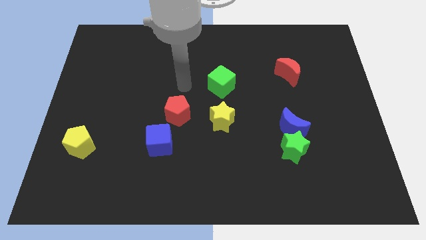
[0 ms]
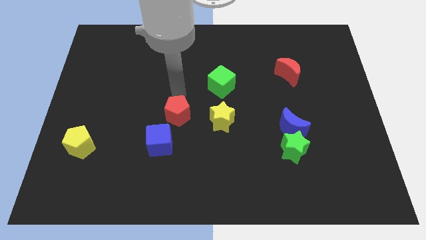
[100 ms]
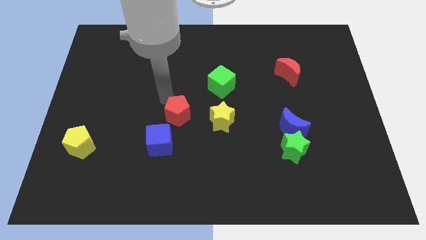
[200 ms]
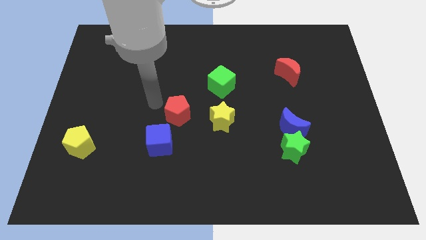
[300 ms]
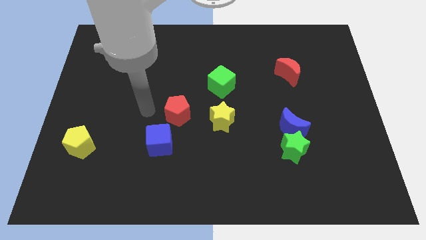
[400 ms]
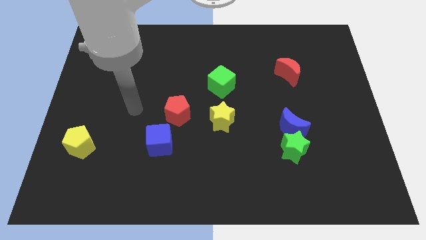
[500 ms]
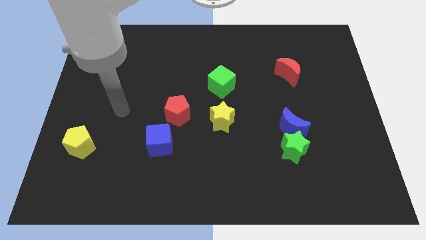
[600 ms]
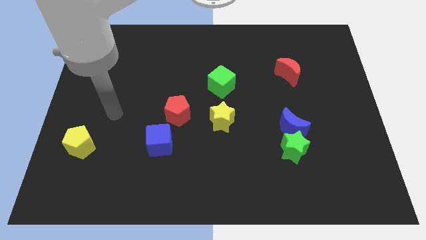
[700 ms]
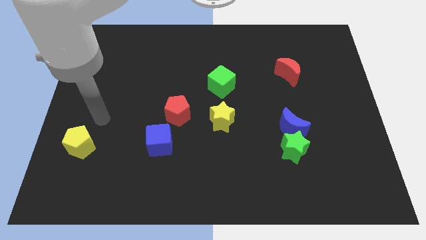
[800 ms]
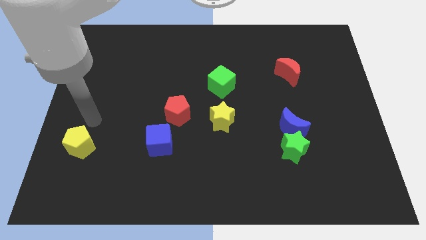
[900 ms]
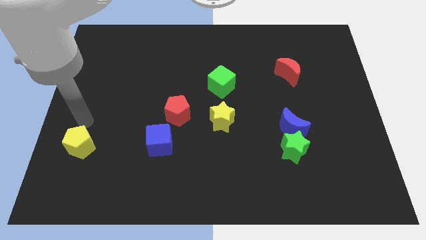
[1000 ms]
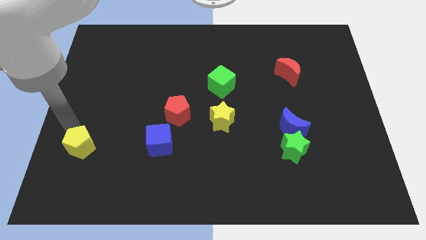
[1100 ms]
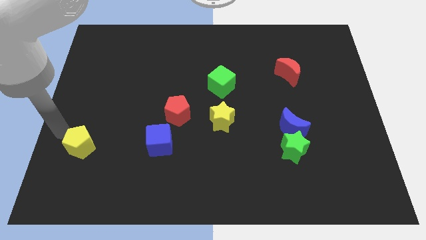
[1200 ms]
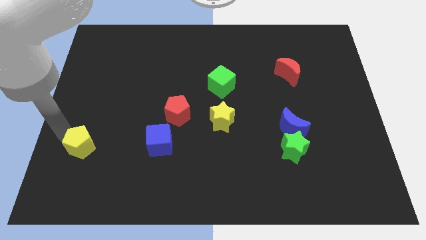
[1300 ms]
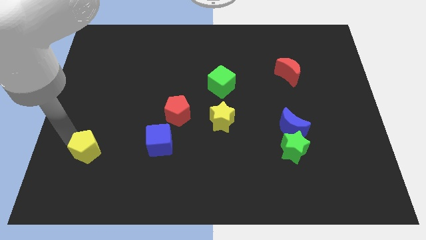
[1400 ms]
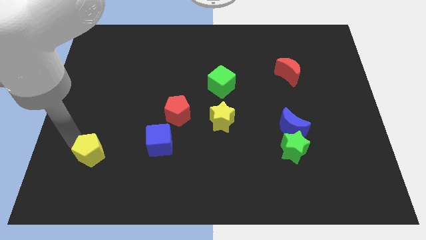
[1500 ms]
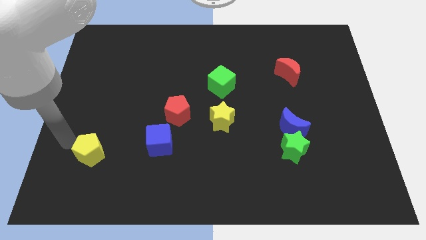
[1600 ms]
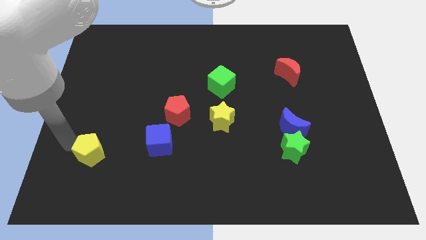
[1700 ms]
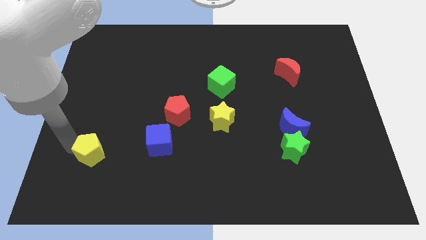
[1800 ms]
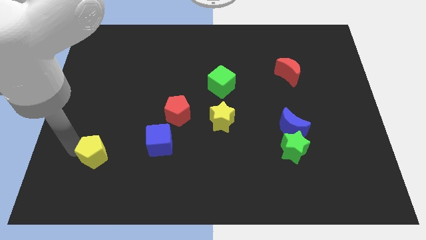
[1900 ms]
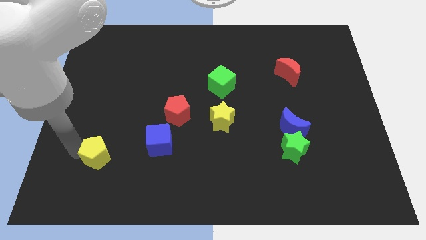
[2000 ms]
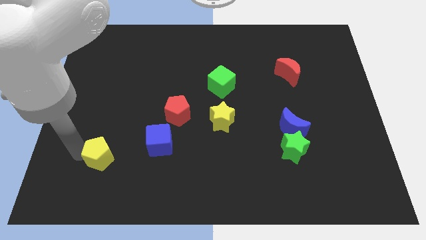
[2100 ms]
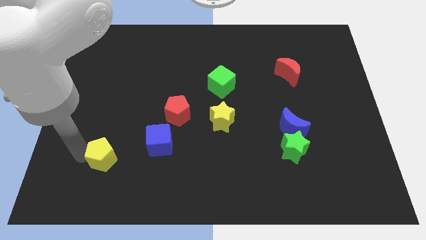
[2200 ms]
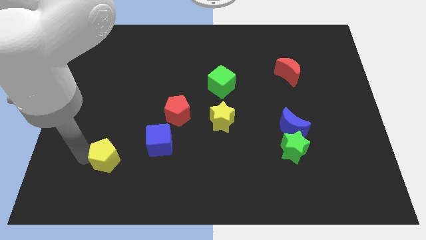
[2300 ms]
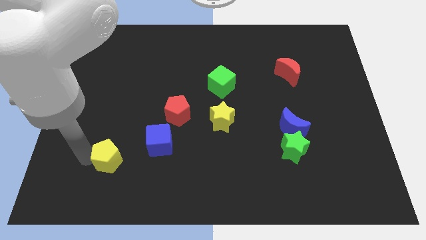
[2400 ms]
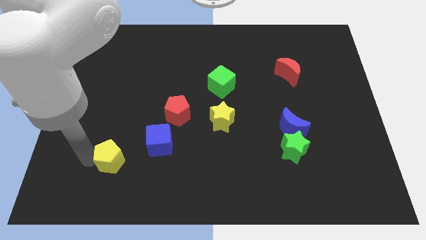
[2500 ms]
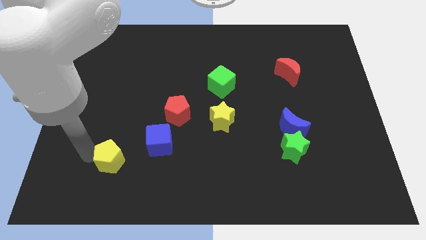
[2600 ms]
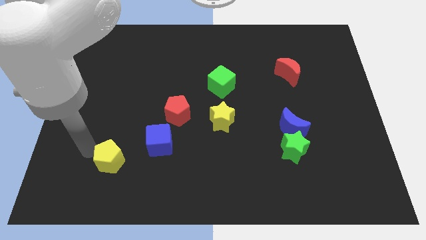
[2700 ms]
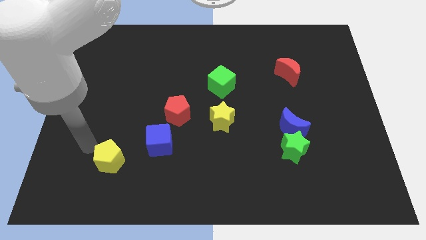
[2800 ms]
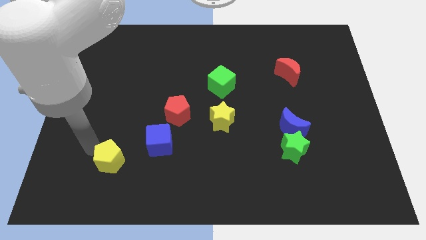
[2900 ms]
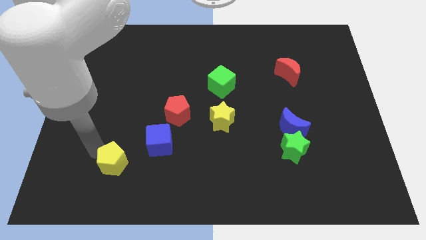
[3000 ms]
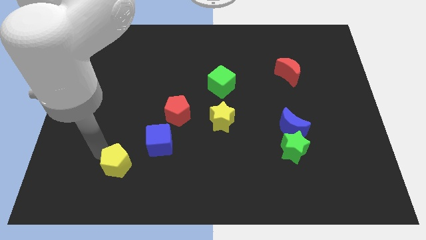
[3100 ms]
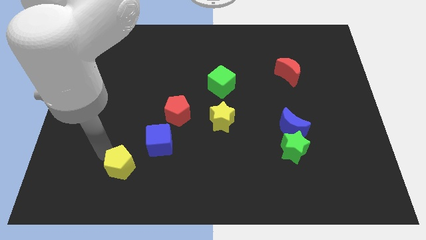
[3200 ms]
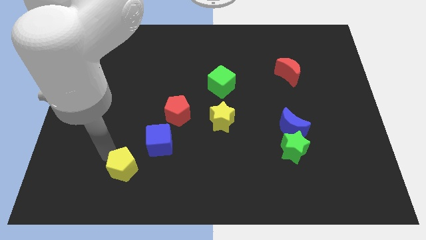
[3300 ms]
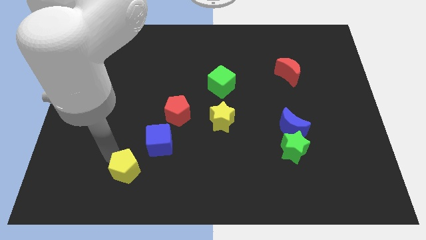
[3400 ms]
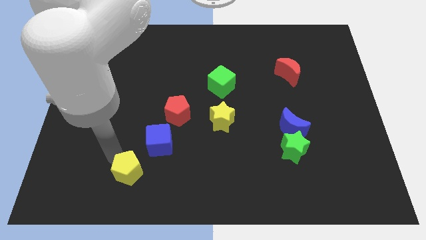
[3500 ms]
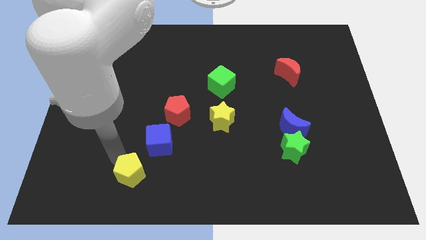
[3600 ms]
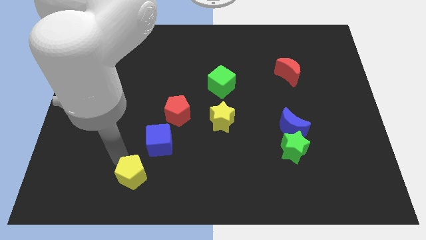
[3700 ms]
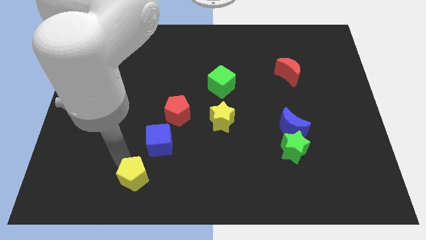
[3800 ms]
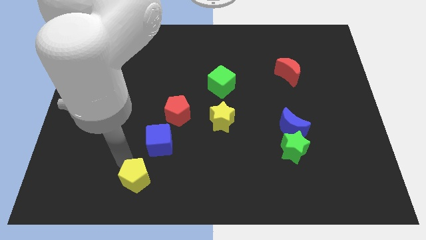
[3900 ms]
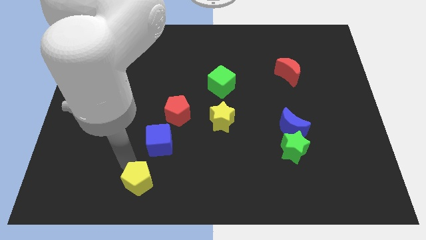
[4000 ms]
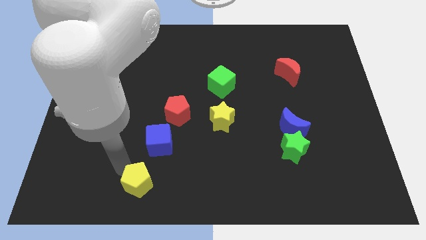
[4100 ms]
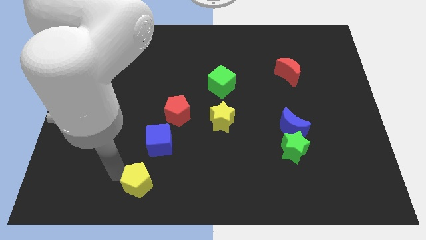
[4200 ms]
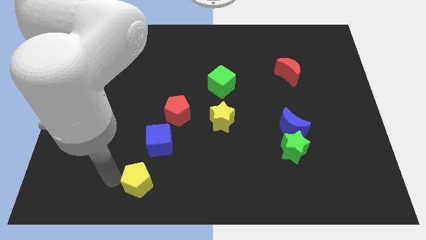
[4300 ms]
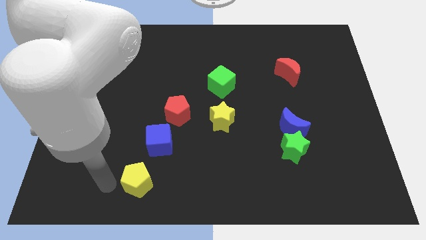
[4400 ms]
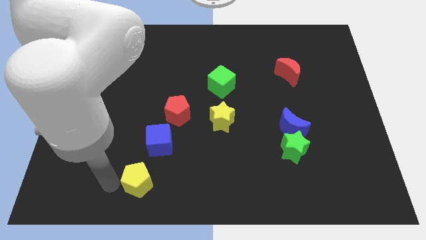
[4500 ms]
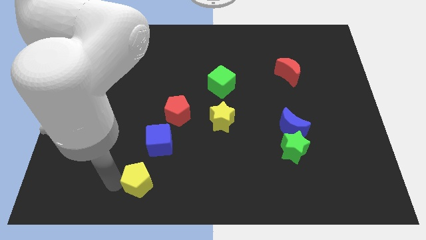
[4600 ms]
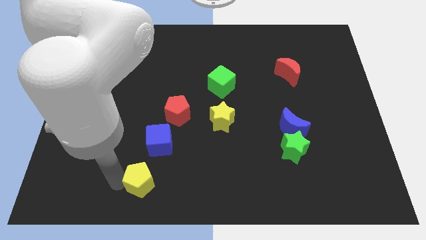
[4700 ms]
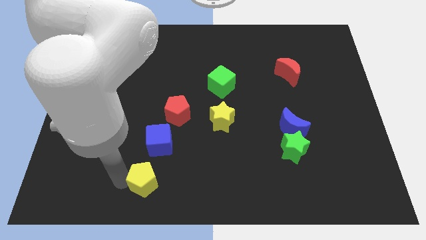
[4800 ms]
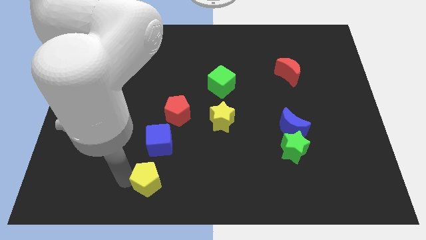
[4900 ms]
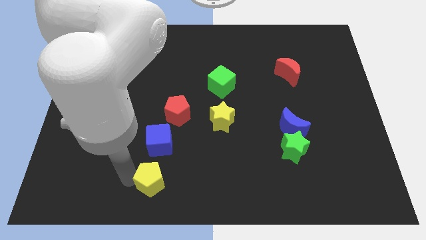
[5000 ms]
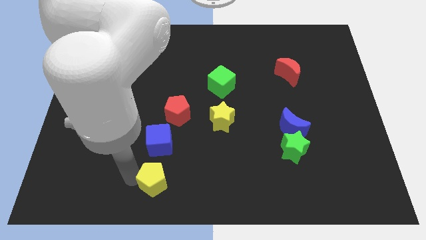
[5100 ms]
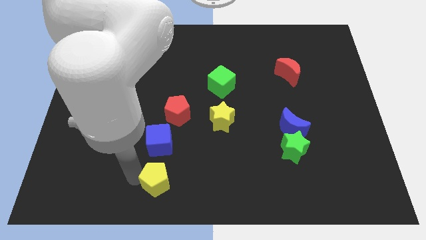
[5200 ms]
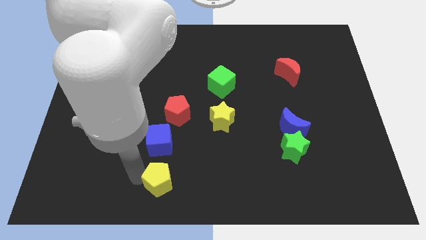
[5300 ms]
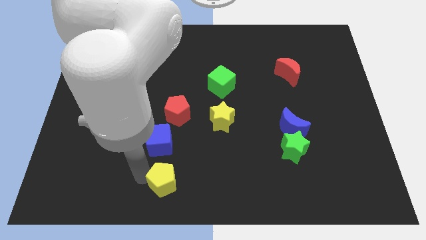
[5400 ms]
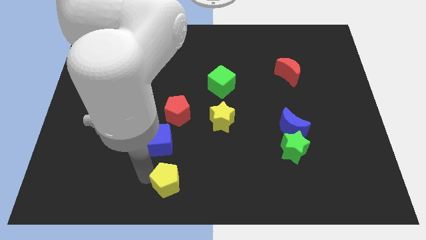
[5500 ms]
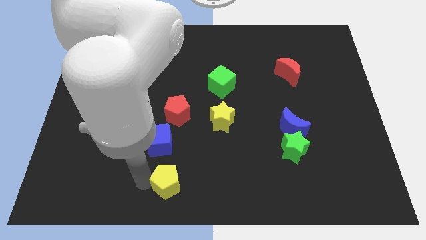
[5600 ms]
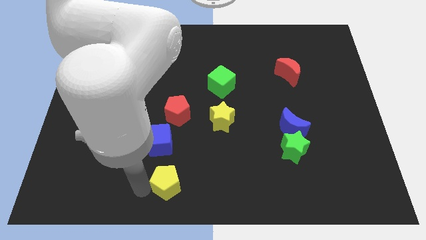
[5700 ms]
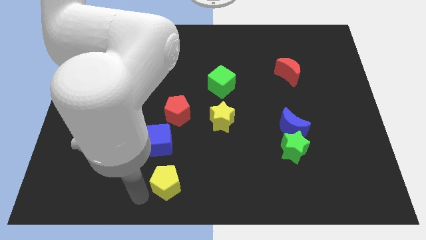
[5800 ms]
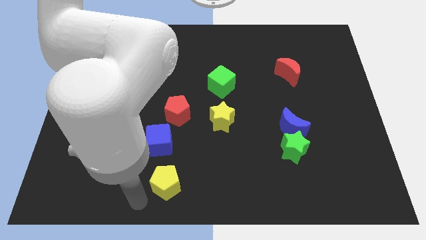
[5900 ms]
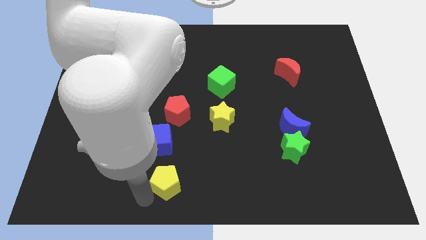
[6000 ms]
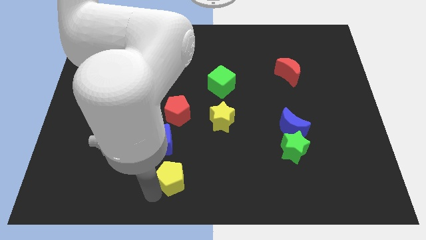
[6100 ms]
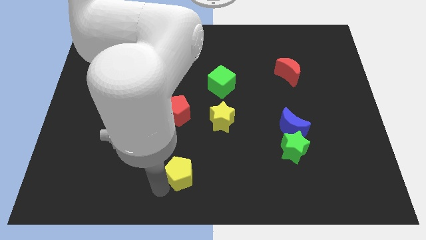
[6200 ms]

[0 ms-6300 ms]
push the yellow pentagon right

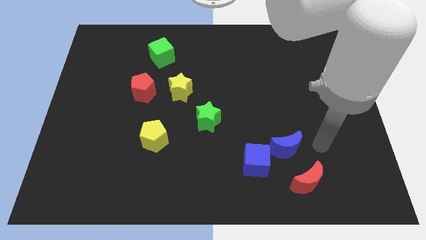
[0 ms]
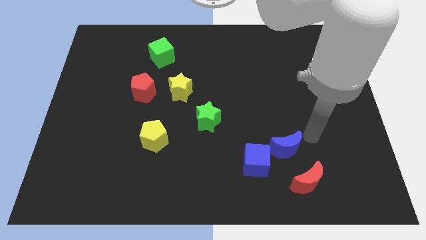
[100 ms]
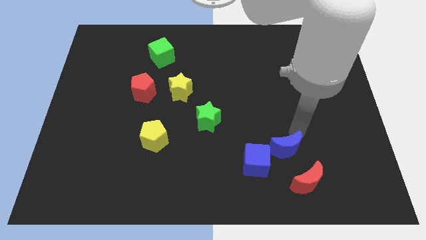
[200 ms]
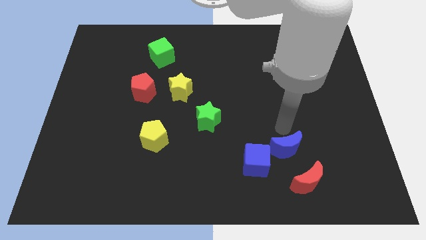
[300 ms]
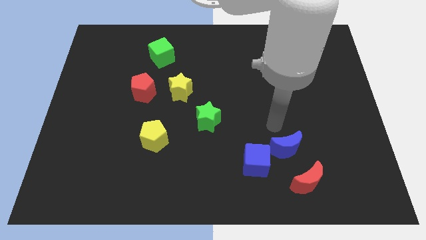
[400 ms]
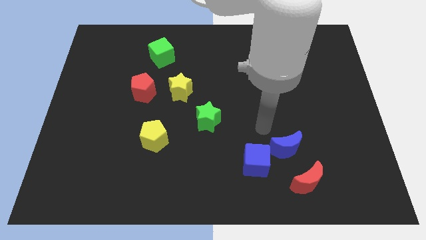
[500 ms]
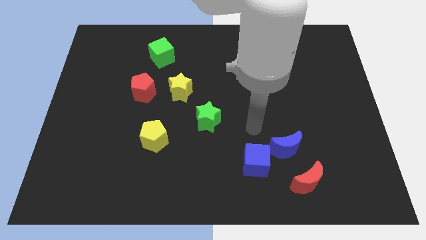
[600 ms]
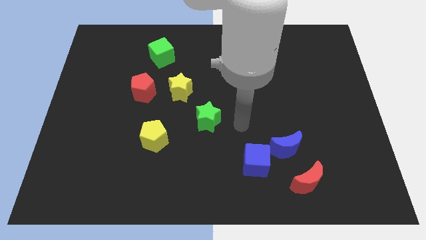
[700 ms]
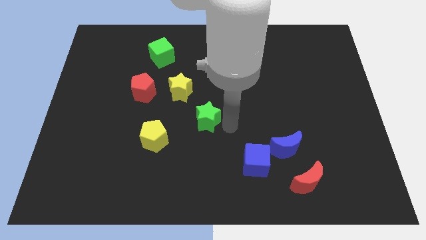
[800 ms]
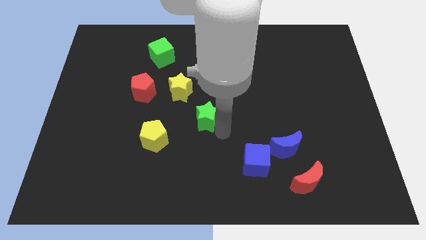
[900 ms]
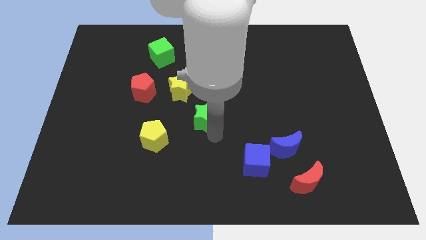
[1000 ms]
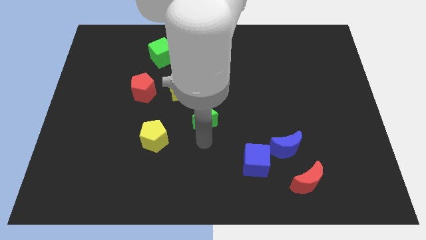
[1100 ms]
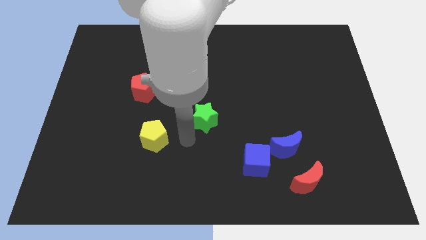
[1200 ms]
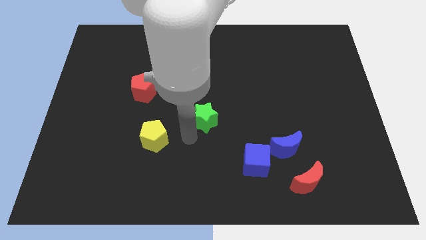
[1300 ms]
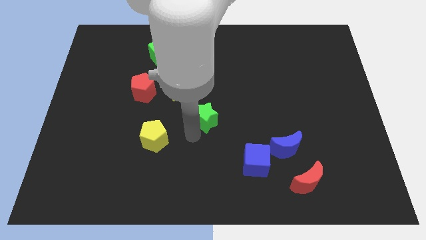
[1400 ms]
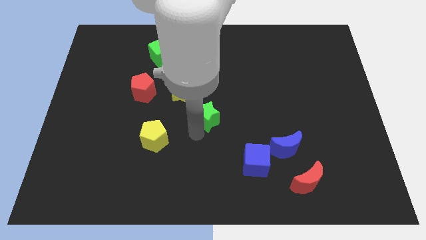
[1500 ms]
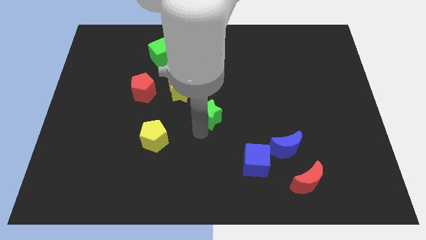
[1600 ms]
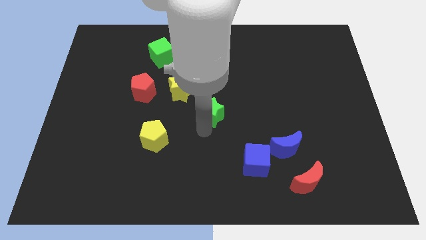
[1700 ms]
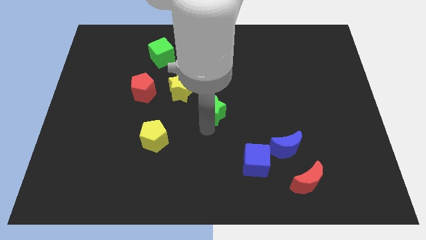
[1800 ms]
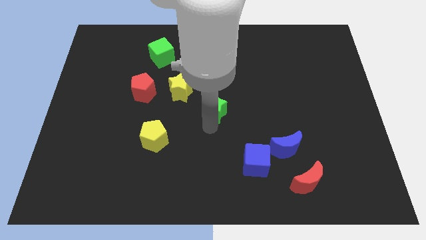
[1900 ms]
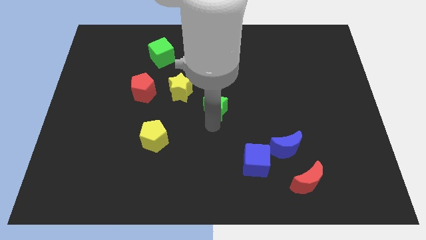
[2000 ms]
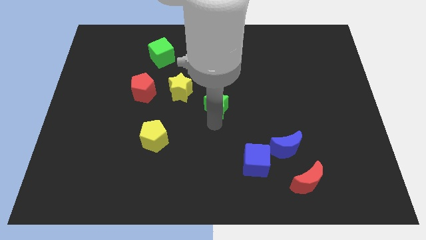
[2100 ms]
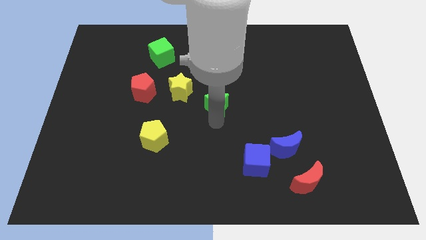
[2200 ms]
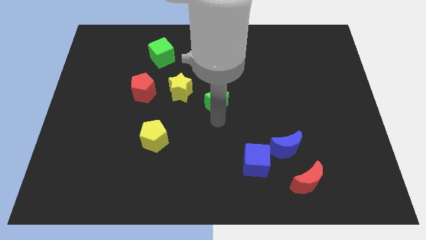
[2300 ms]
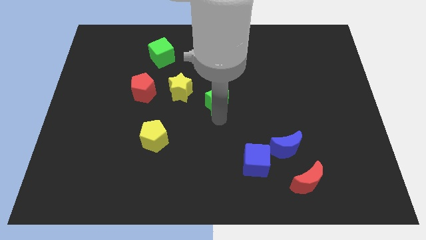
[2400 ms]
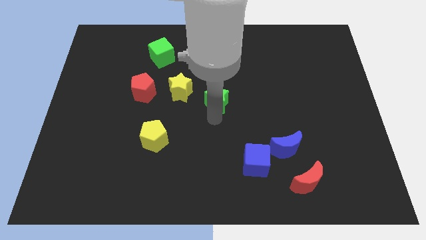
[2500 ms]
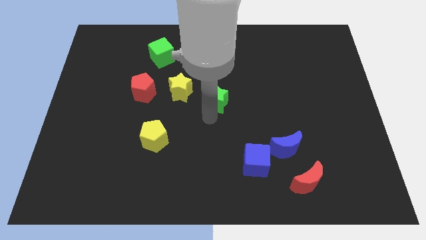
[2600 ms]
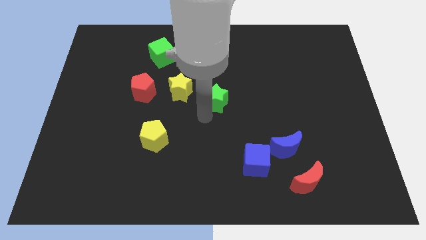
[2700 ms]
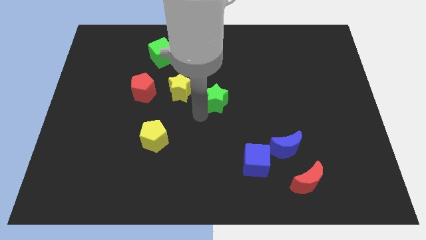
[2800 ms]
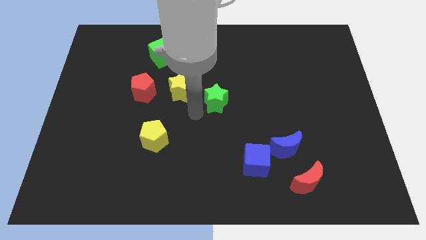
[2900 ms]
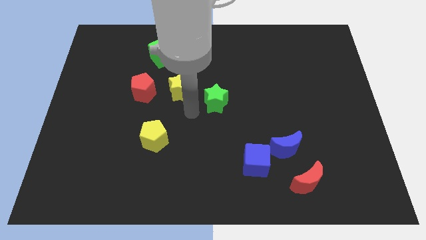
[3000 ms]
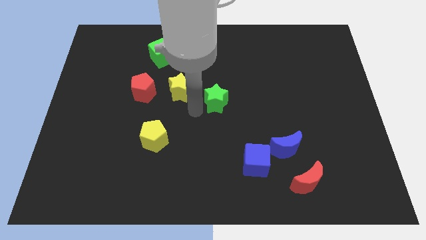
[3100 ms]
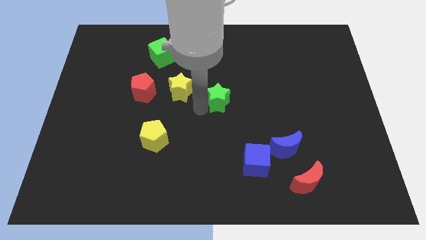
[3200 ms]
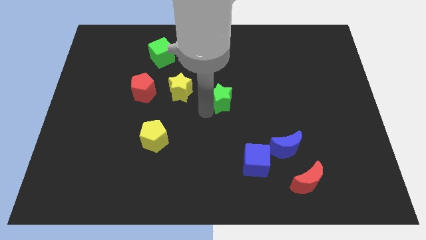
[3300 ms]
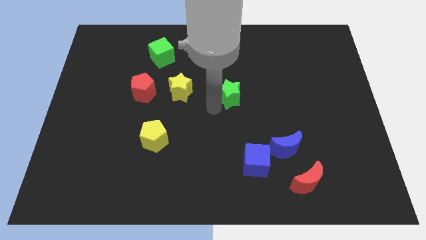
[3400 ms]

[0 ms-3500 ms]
slightly push the green star up and to the right diagonally
